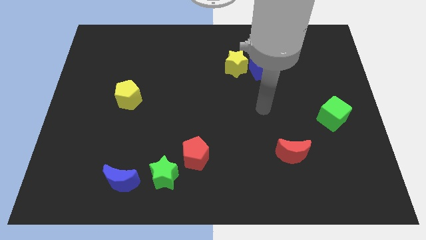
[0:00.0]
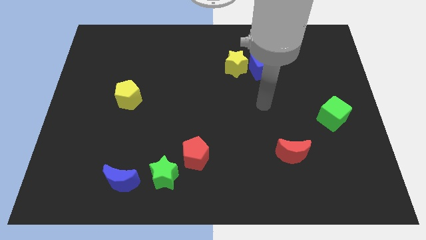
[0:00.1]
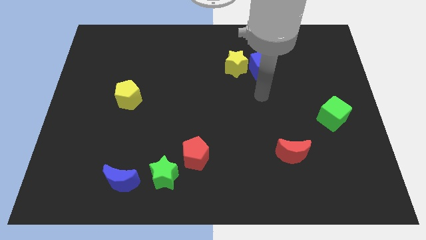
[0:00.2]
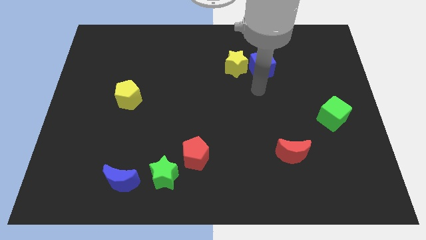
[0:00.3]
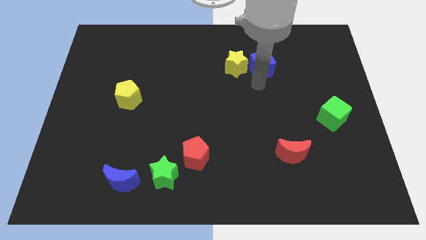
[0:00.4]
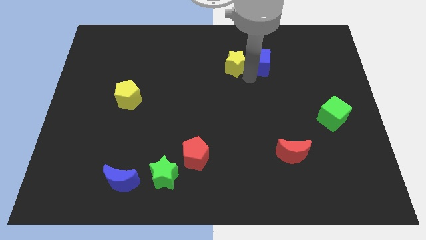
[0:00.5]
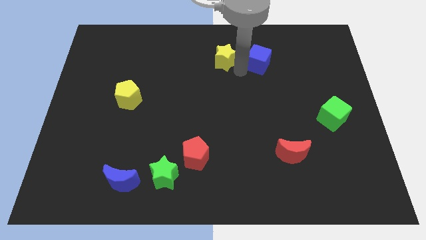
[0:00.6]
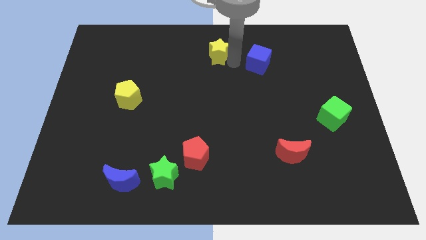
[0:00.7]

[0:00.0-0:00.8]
move the blue cube away from the yellow star

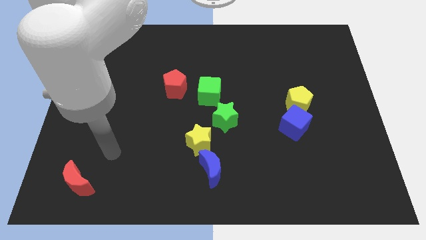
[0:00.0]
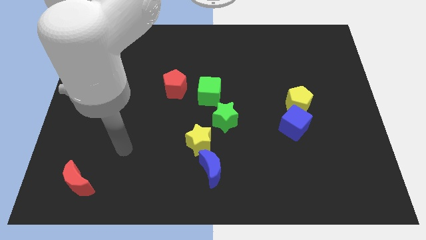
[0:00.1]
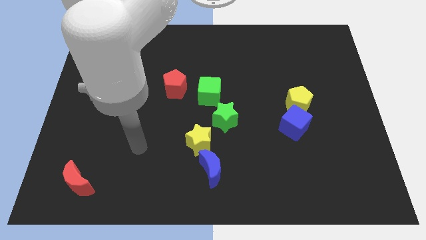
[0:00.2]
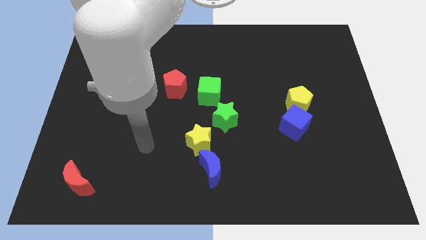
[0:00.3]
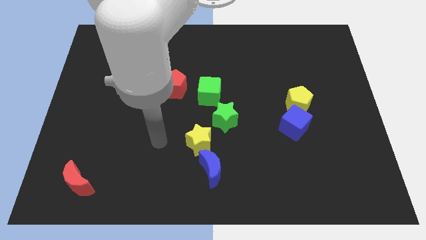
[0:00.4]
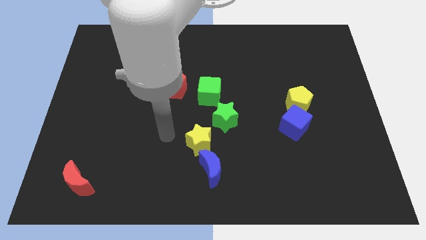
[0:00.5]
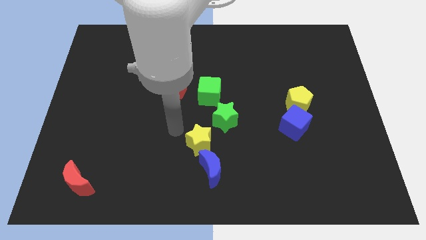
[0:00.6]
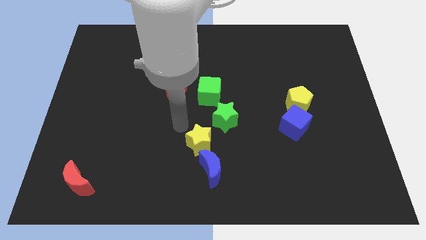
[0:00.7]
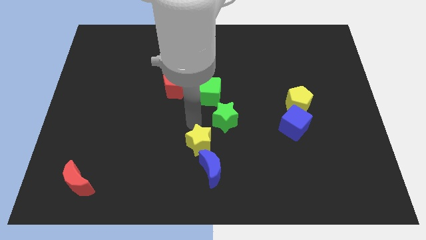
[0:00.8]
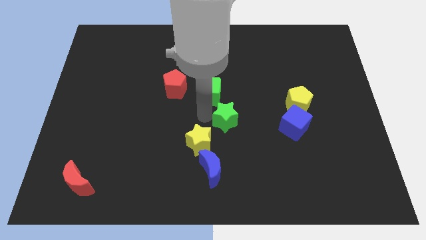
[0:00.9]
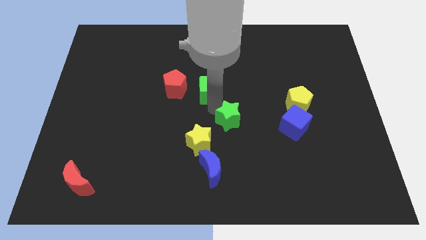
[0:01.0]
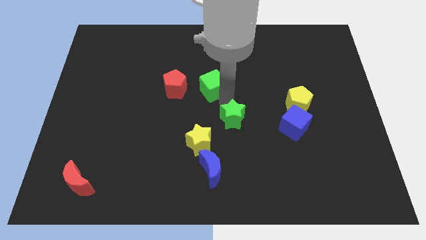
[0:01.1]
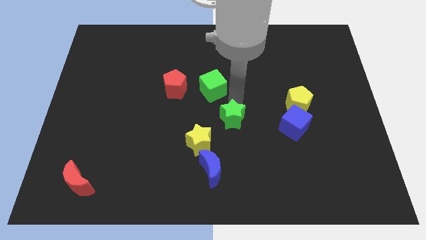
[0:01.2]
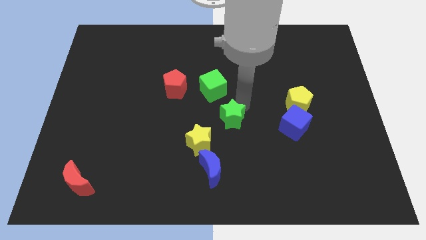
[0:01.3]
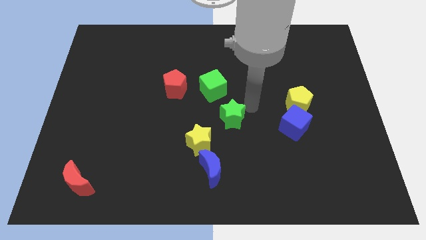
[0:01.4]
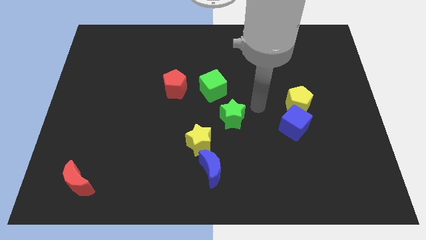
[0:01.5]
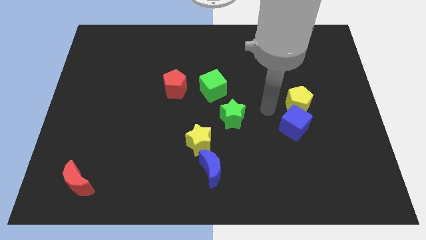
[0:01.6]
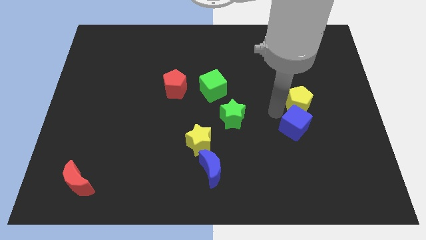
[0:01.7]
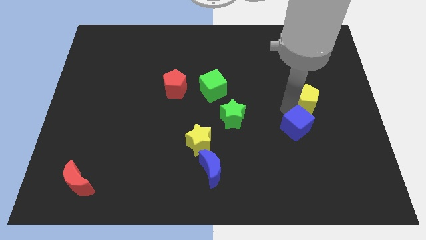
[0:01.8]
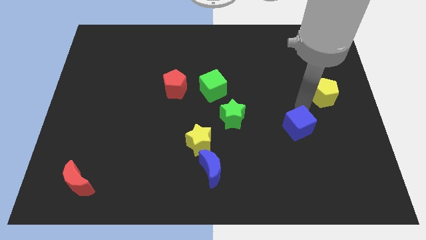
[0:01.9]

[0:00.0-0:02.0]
move the blue cube away from the yellow pentagon

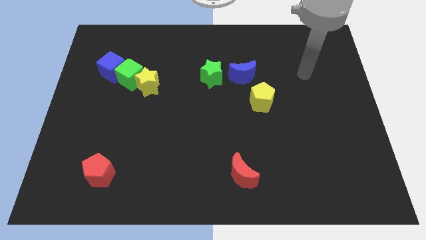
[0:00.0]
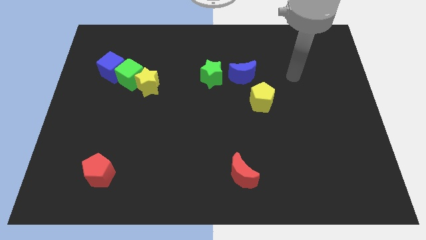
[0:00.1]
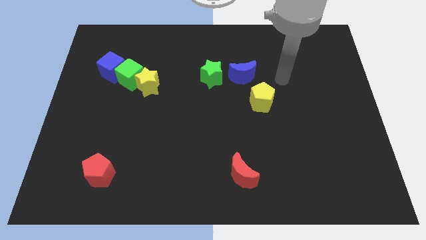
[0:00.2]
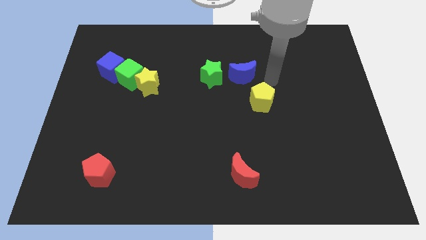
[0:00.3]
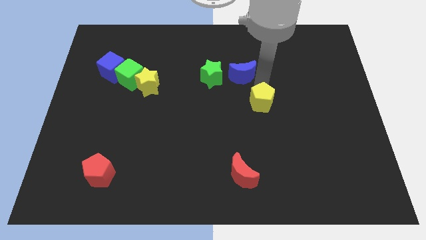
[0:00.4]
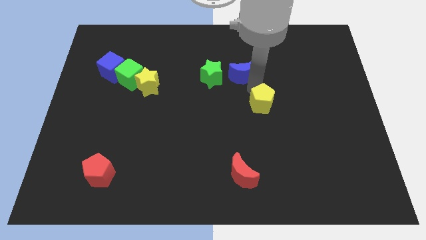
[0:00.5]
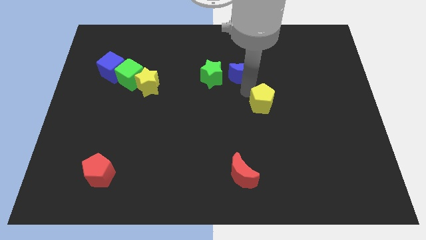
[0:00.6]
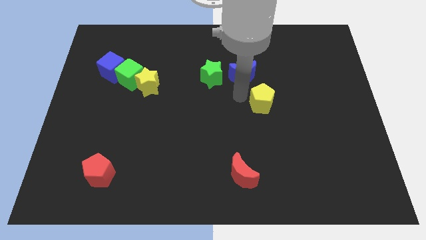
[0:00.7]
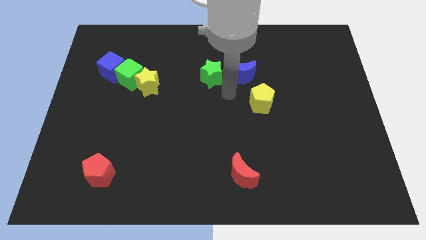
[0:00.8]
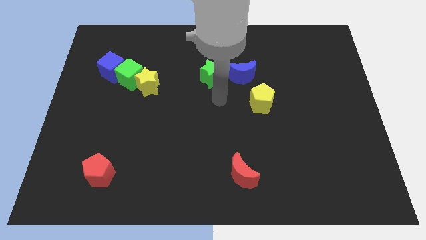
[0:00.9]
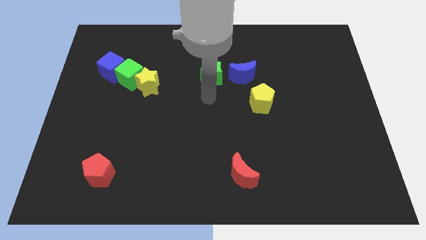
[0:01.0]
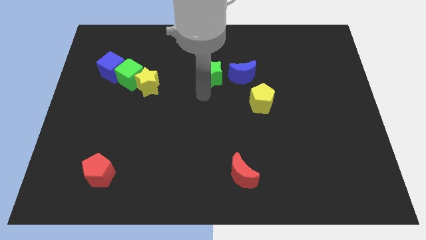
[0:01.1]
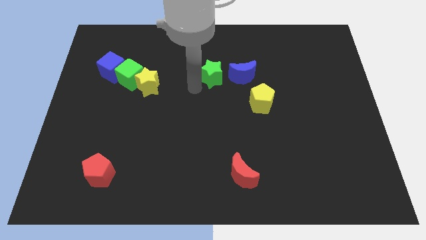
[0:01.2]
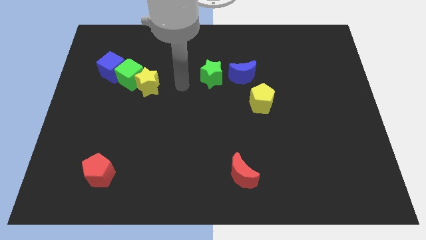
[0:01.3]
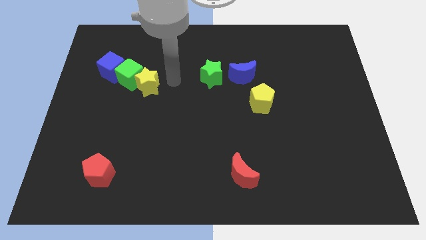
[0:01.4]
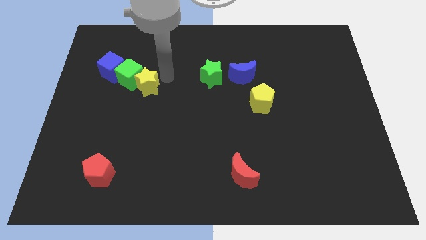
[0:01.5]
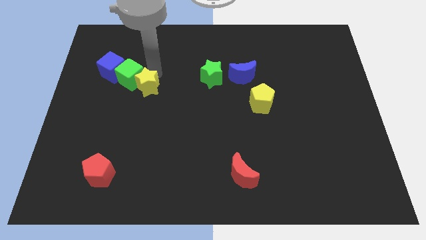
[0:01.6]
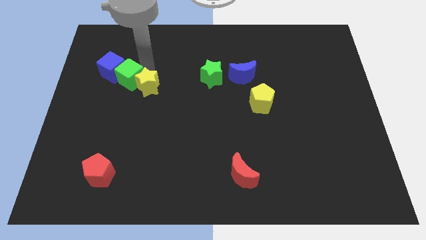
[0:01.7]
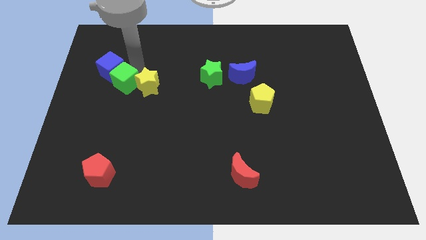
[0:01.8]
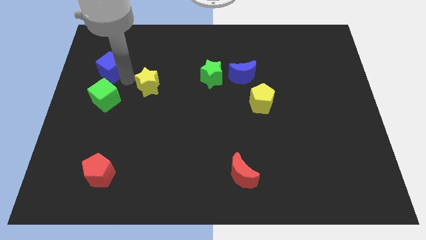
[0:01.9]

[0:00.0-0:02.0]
pull the yellow star apart from the green cube

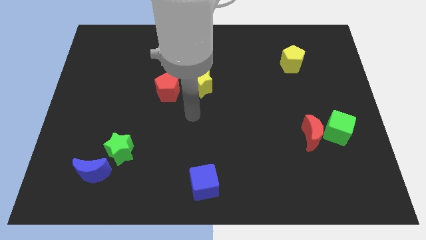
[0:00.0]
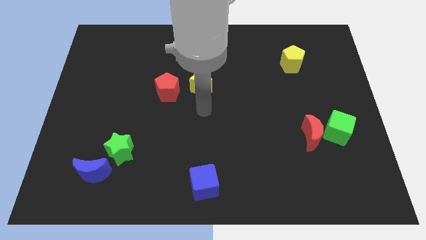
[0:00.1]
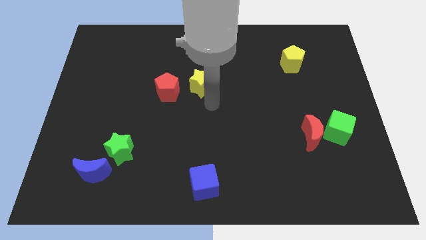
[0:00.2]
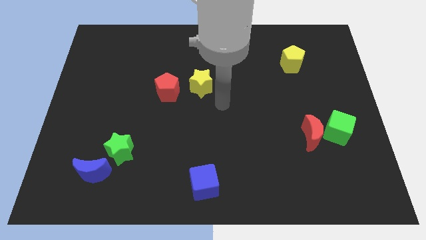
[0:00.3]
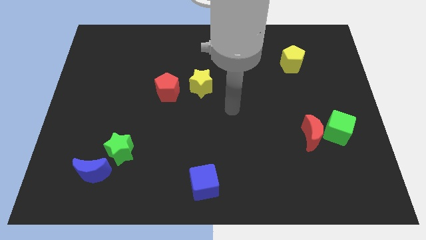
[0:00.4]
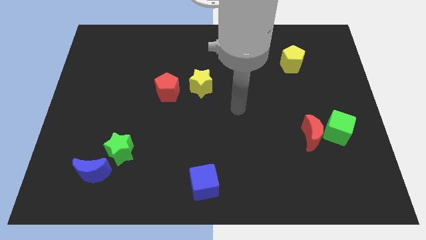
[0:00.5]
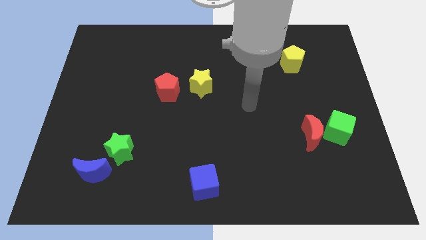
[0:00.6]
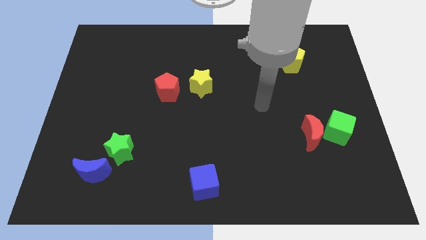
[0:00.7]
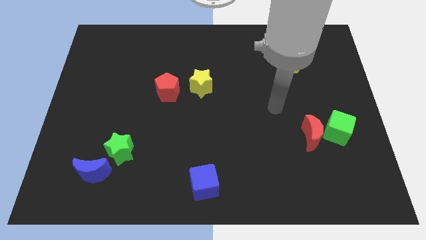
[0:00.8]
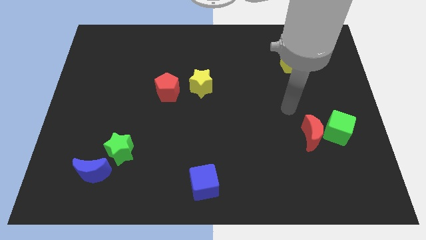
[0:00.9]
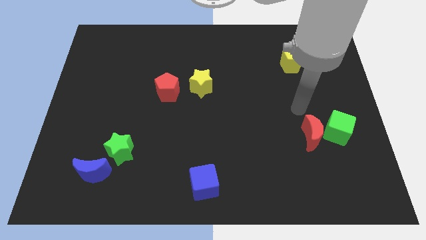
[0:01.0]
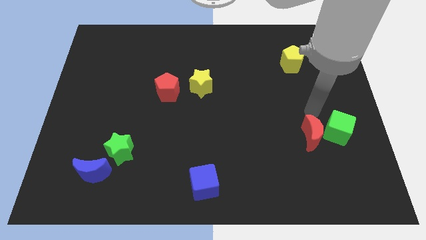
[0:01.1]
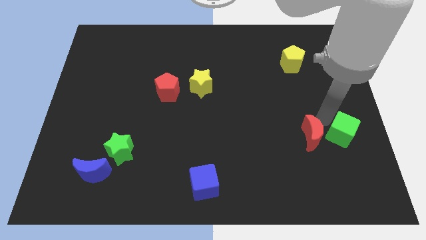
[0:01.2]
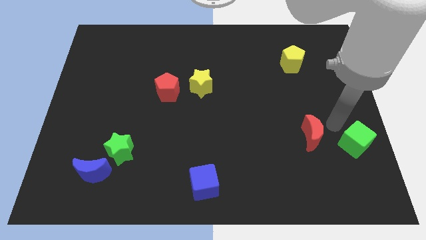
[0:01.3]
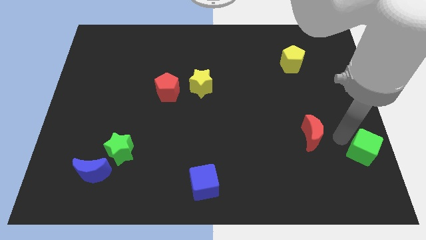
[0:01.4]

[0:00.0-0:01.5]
move the red moon away from the green cube

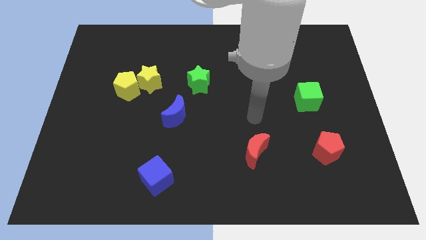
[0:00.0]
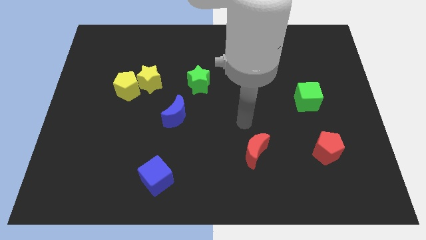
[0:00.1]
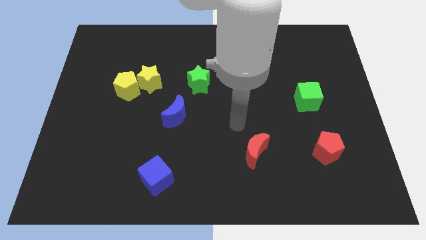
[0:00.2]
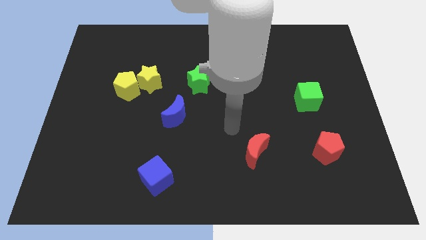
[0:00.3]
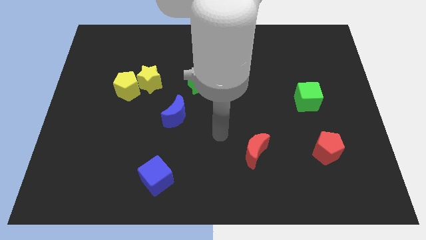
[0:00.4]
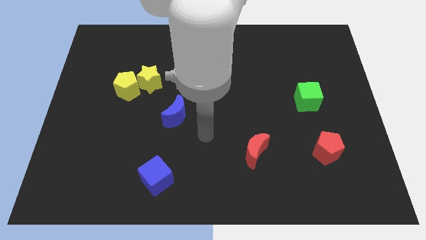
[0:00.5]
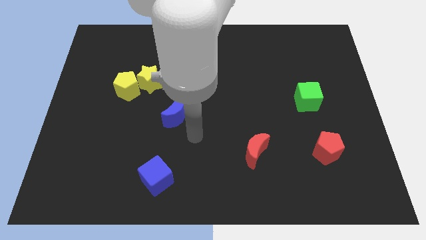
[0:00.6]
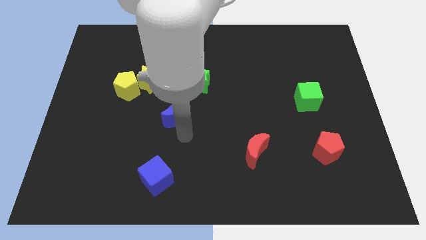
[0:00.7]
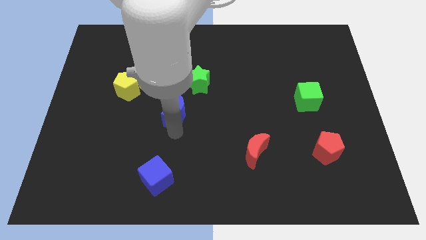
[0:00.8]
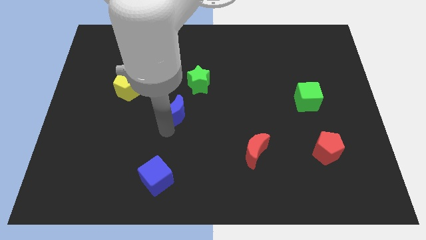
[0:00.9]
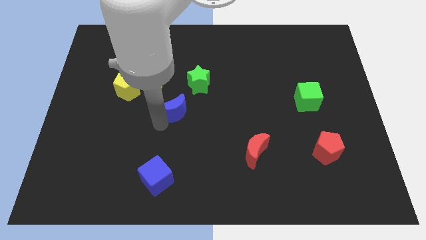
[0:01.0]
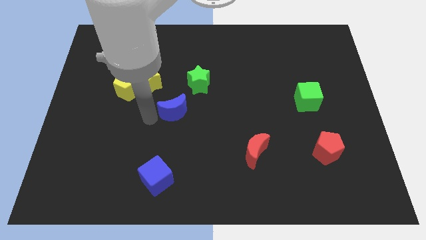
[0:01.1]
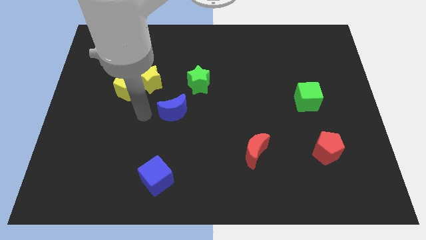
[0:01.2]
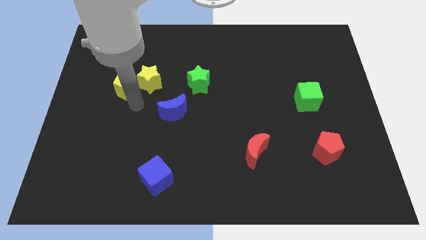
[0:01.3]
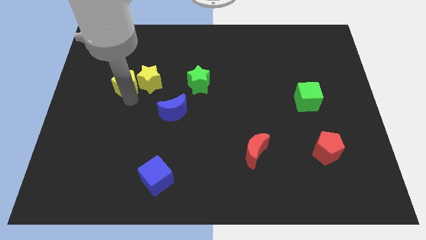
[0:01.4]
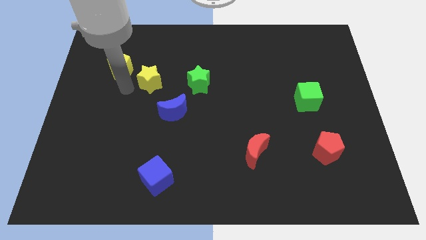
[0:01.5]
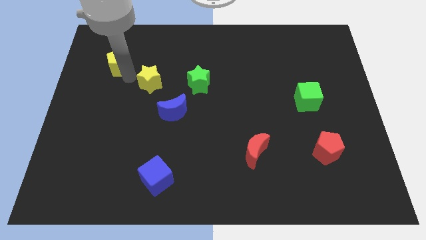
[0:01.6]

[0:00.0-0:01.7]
separate the yellow star from the yellow pentagon

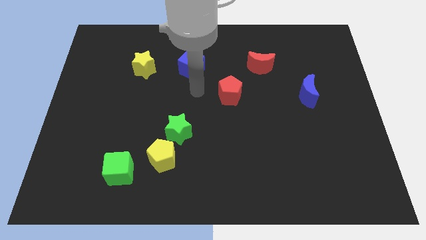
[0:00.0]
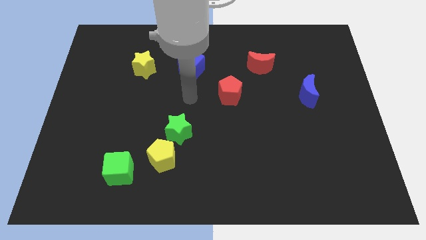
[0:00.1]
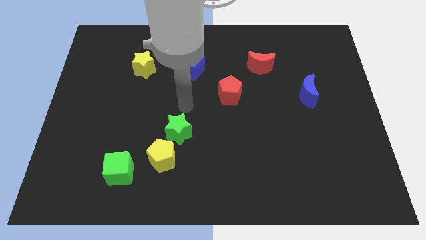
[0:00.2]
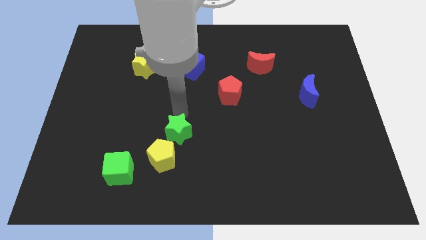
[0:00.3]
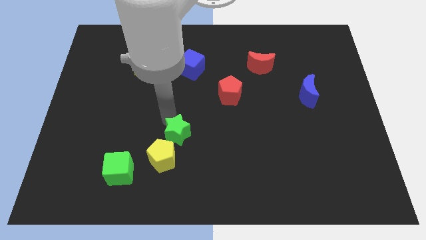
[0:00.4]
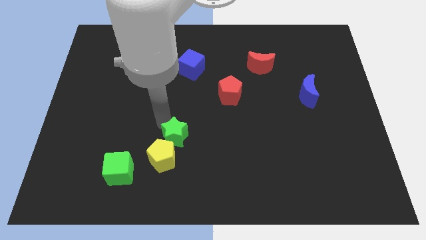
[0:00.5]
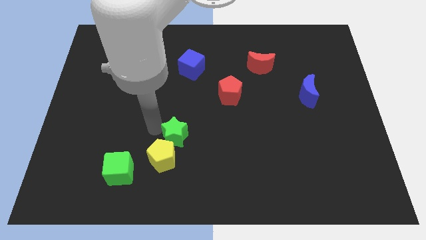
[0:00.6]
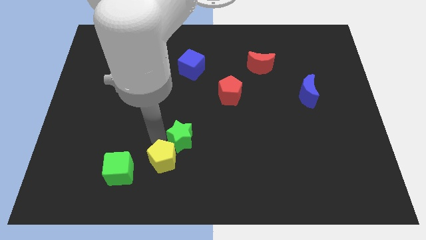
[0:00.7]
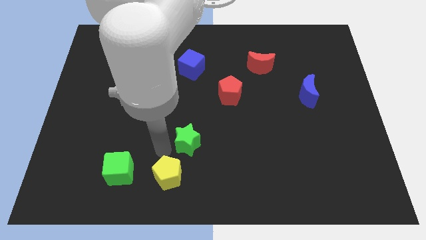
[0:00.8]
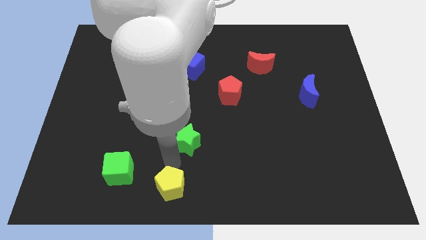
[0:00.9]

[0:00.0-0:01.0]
pull the green star apart from the yellow pentagon

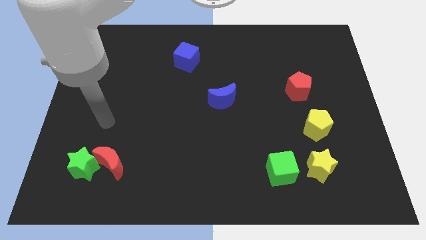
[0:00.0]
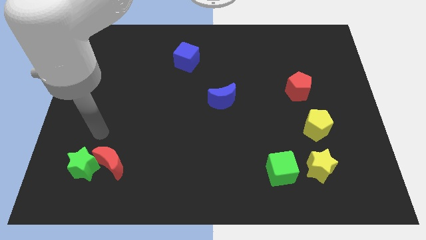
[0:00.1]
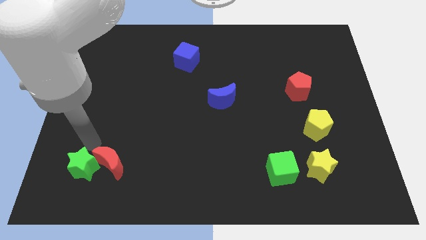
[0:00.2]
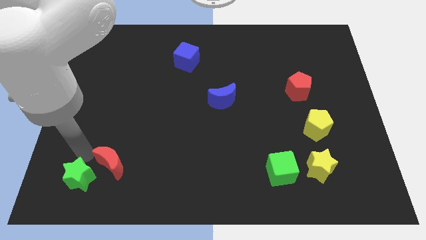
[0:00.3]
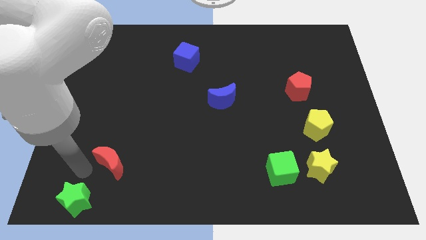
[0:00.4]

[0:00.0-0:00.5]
move the red moon away from the green star
